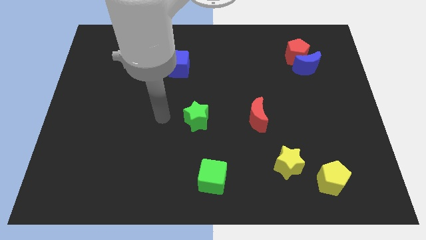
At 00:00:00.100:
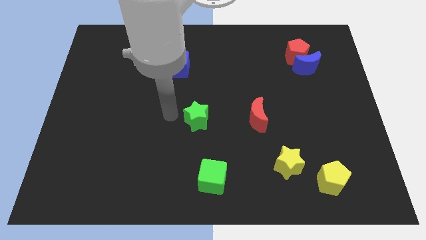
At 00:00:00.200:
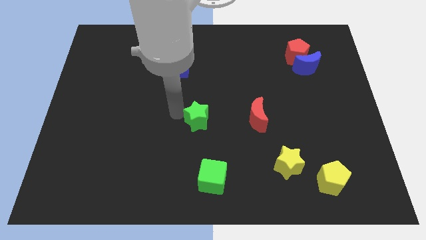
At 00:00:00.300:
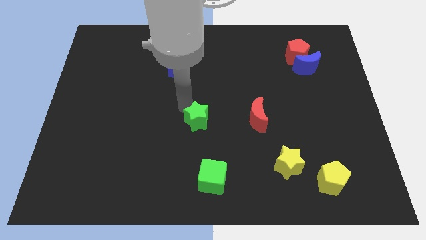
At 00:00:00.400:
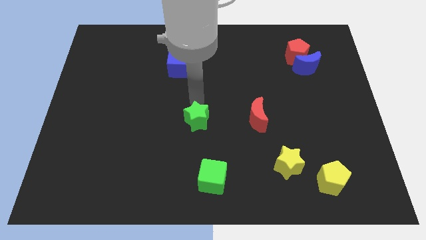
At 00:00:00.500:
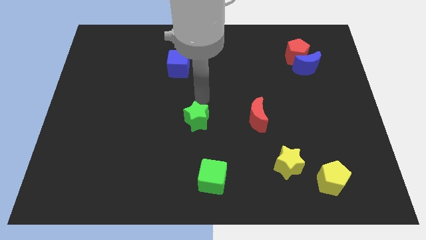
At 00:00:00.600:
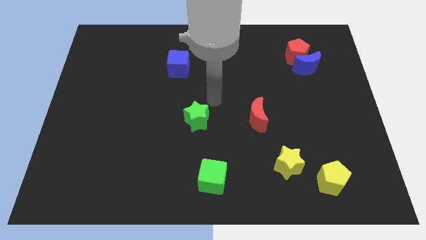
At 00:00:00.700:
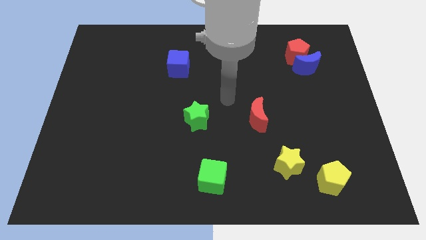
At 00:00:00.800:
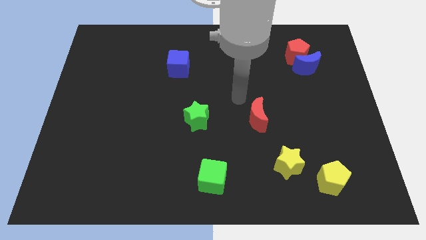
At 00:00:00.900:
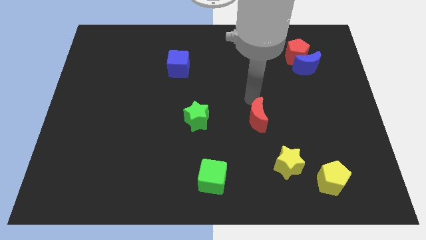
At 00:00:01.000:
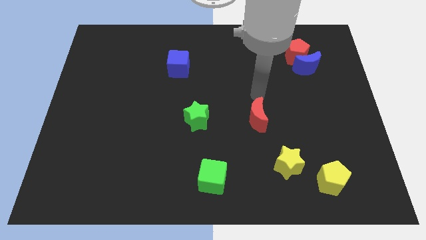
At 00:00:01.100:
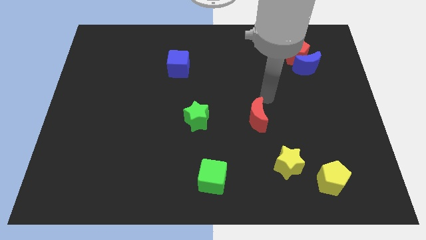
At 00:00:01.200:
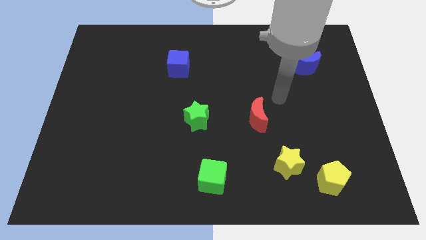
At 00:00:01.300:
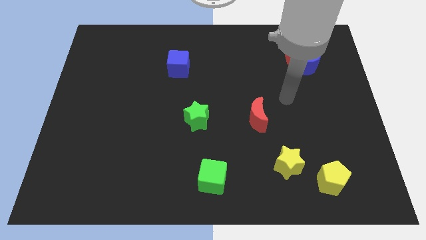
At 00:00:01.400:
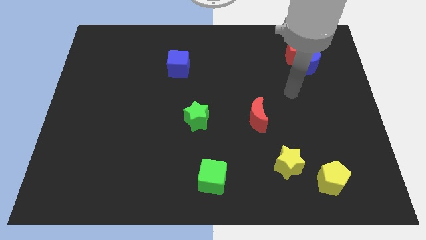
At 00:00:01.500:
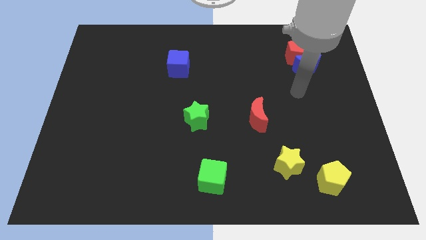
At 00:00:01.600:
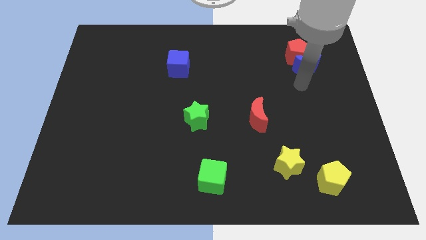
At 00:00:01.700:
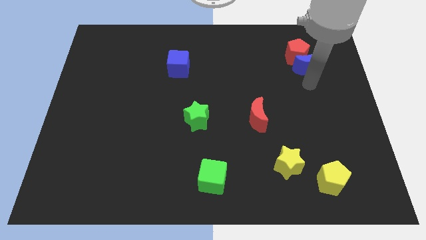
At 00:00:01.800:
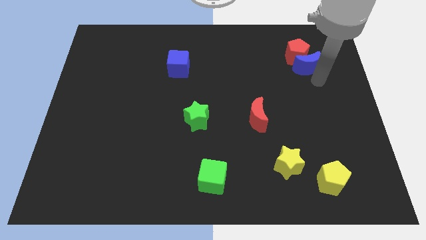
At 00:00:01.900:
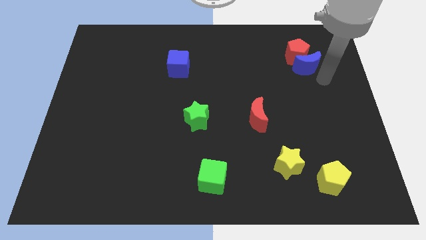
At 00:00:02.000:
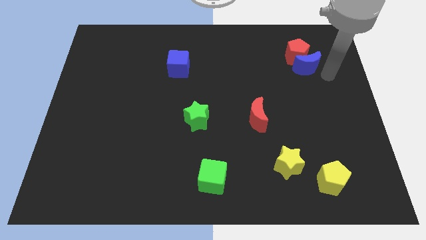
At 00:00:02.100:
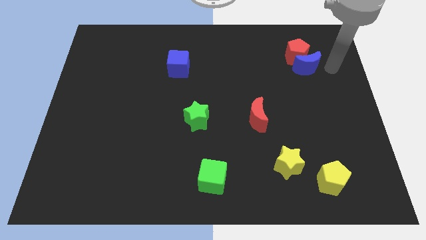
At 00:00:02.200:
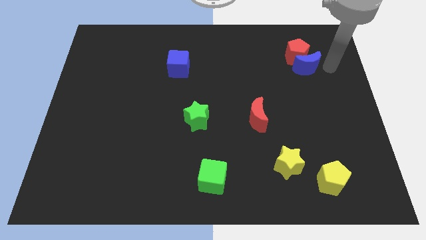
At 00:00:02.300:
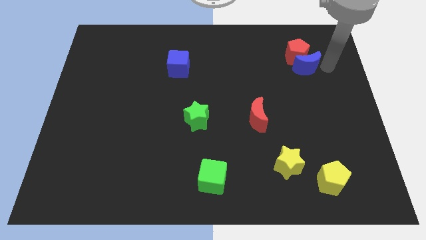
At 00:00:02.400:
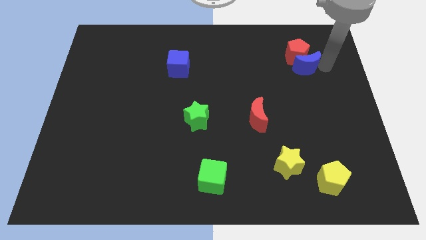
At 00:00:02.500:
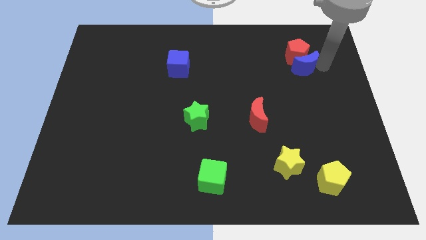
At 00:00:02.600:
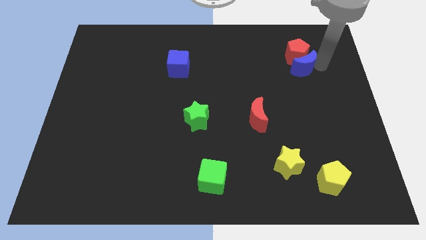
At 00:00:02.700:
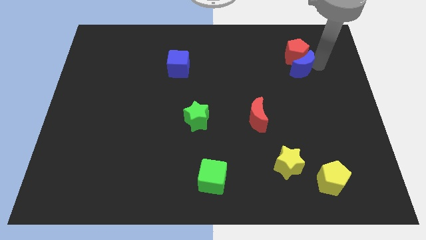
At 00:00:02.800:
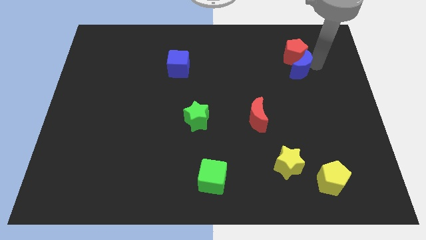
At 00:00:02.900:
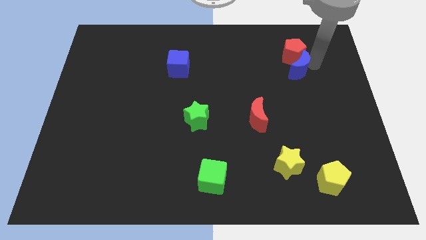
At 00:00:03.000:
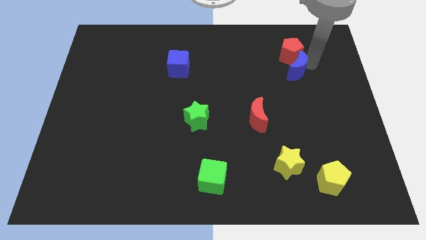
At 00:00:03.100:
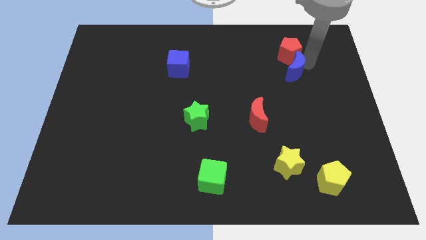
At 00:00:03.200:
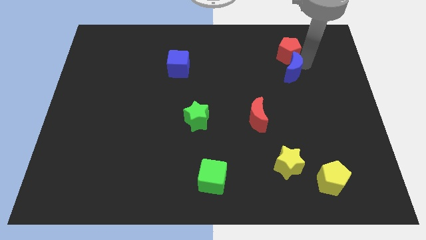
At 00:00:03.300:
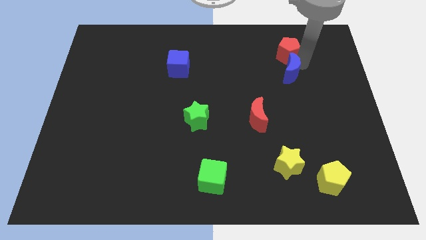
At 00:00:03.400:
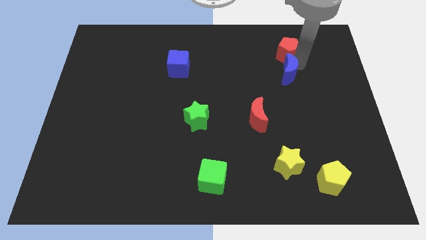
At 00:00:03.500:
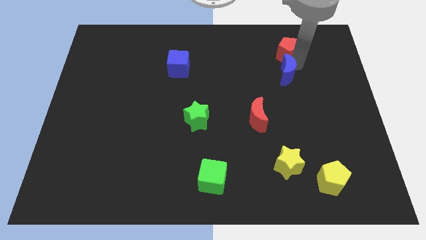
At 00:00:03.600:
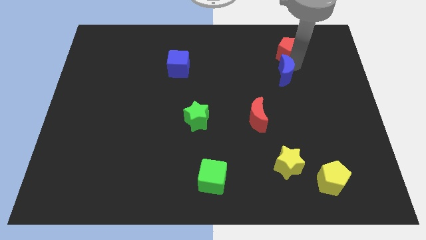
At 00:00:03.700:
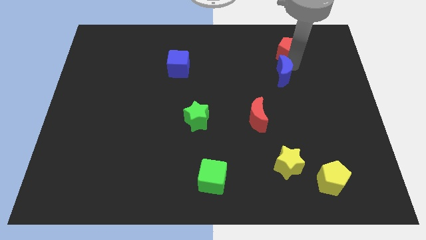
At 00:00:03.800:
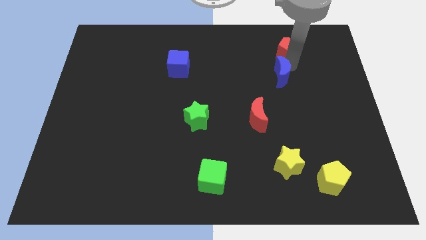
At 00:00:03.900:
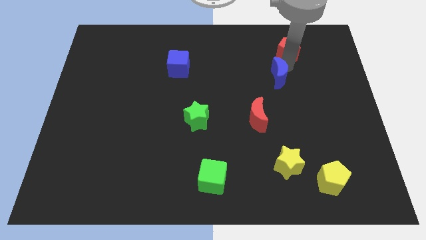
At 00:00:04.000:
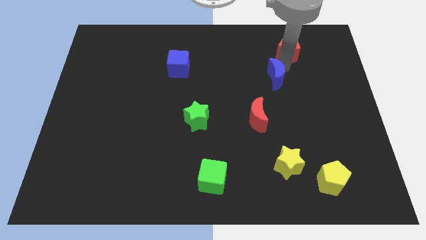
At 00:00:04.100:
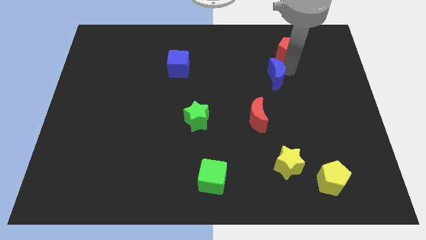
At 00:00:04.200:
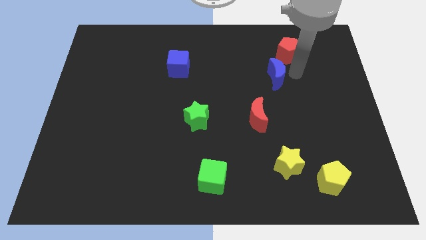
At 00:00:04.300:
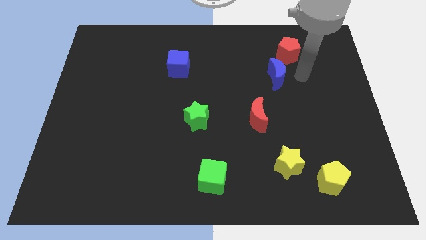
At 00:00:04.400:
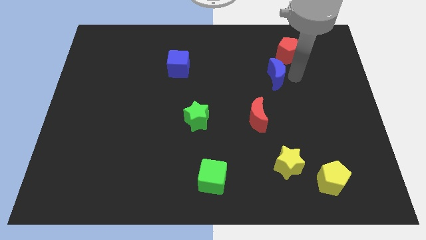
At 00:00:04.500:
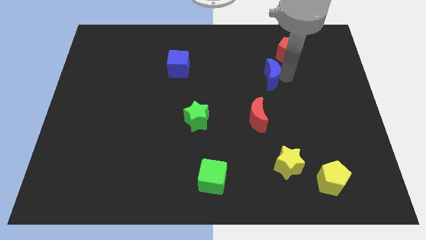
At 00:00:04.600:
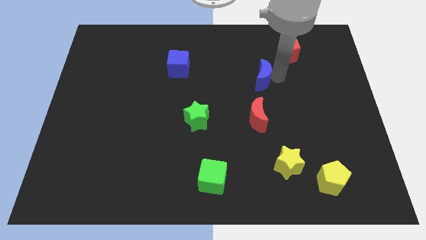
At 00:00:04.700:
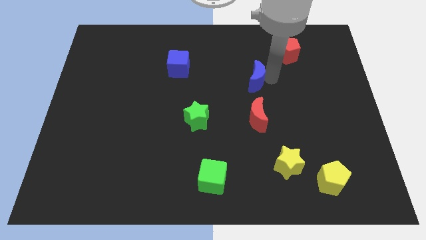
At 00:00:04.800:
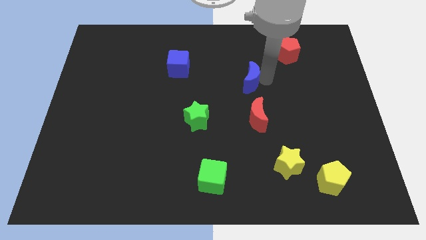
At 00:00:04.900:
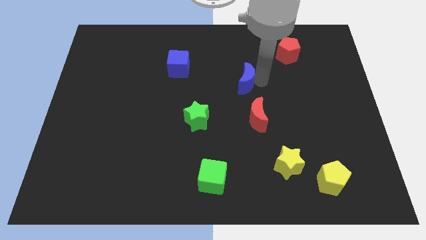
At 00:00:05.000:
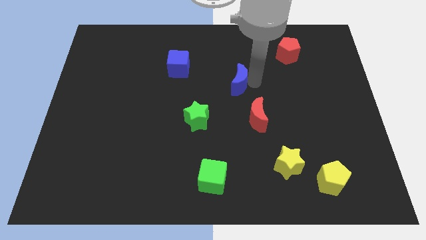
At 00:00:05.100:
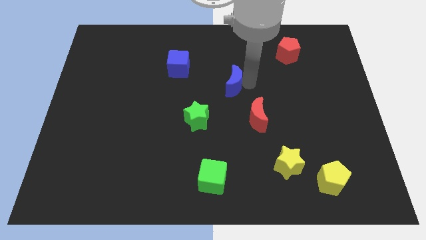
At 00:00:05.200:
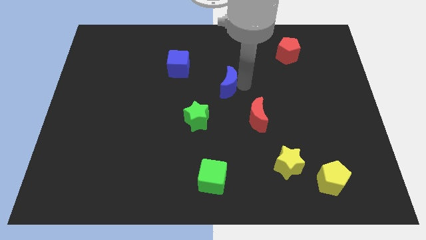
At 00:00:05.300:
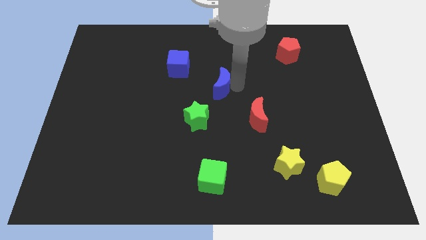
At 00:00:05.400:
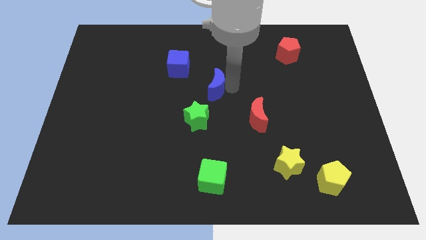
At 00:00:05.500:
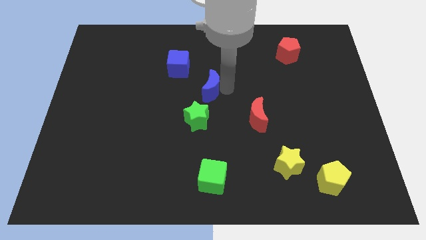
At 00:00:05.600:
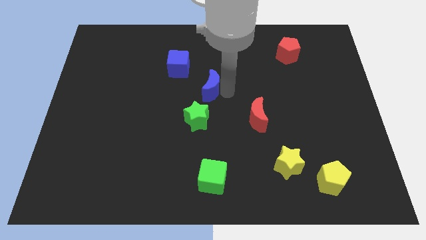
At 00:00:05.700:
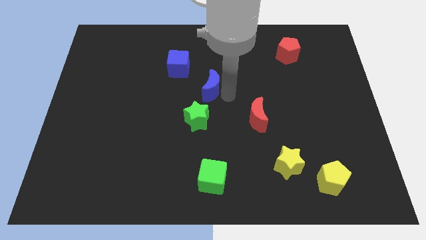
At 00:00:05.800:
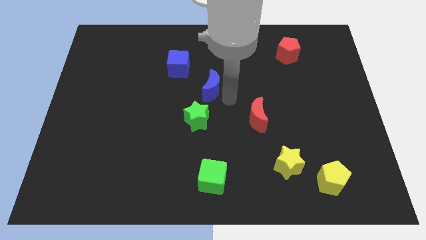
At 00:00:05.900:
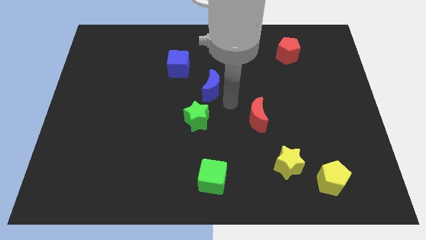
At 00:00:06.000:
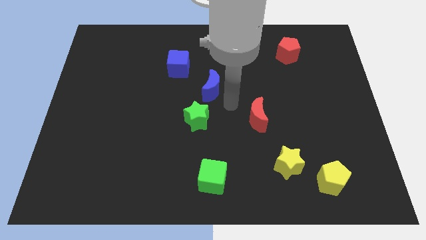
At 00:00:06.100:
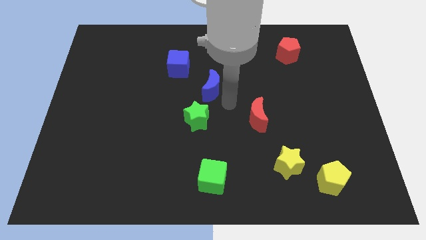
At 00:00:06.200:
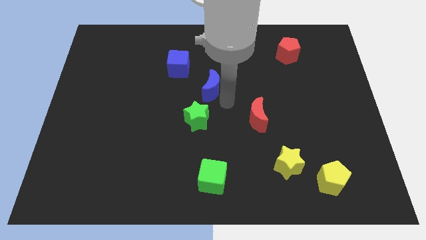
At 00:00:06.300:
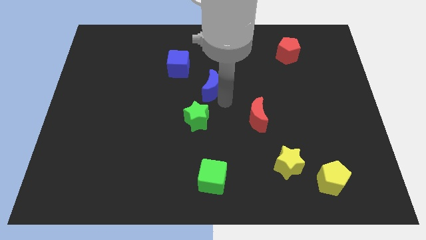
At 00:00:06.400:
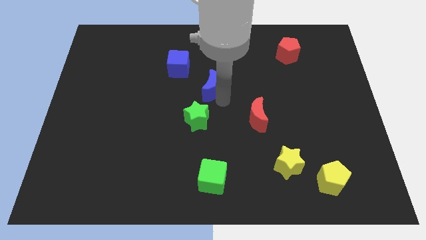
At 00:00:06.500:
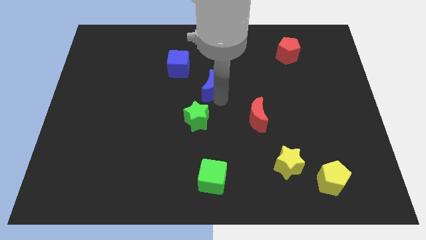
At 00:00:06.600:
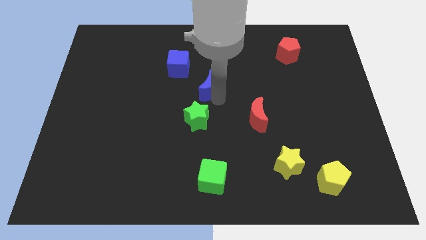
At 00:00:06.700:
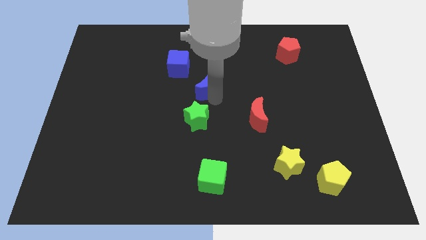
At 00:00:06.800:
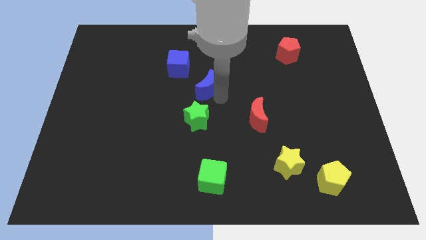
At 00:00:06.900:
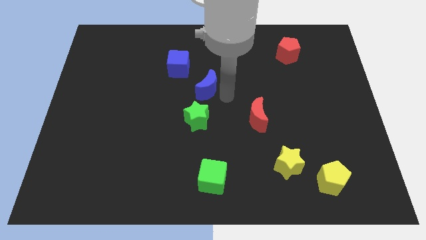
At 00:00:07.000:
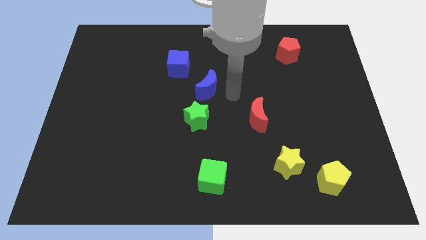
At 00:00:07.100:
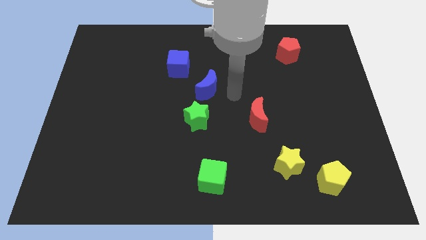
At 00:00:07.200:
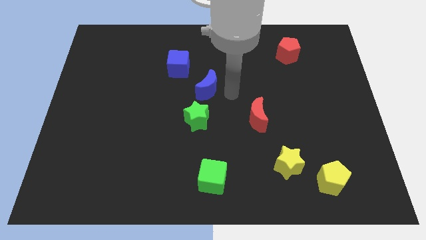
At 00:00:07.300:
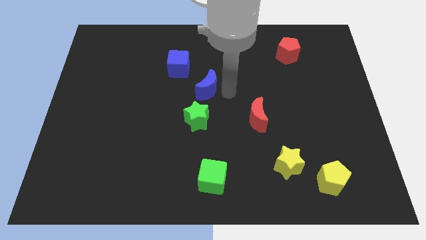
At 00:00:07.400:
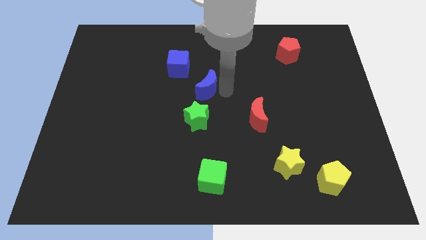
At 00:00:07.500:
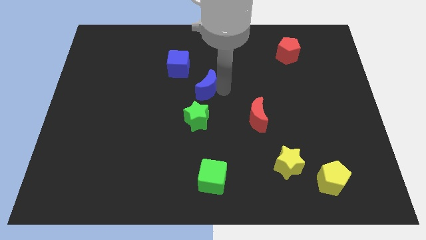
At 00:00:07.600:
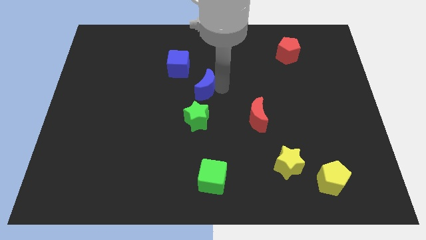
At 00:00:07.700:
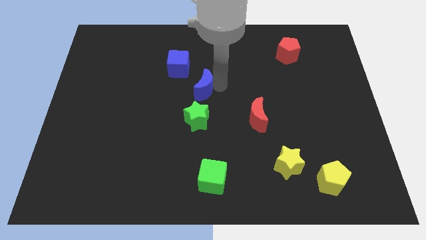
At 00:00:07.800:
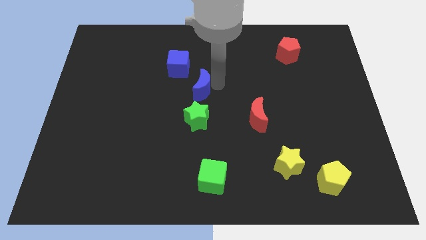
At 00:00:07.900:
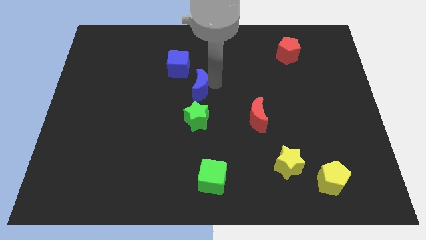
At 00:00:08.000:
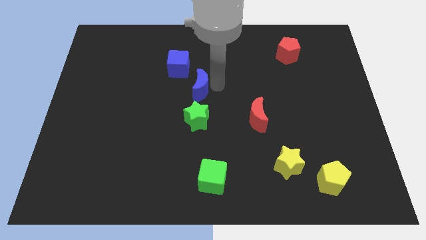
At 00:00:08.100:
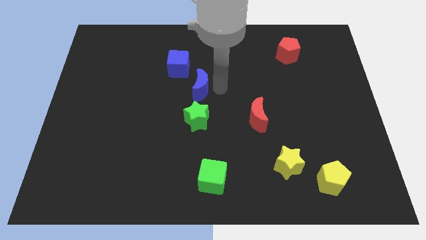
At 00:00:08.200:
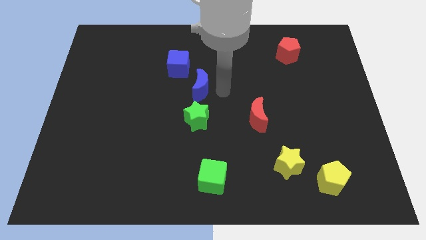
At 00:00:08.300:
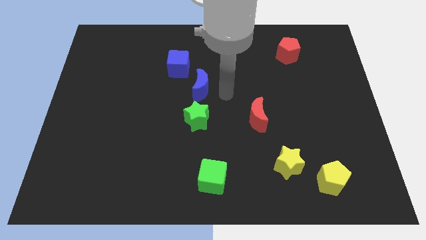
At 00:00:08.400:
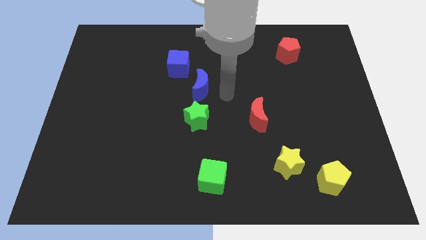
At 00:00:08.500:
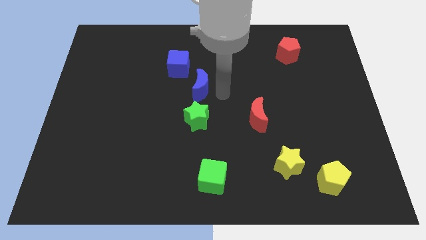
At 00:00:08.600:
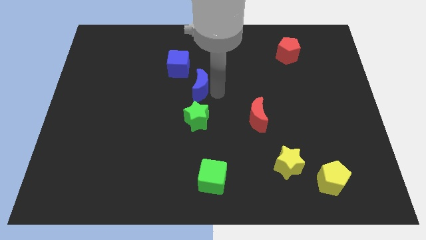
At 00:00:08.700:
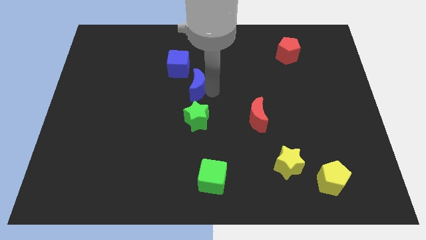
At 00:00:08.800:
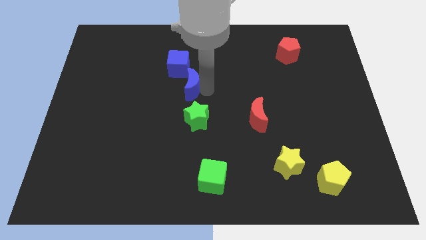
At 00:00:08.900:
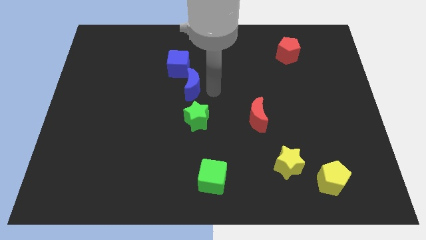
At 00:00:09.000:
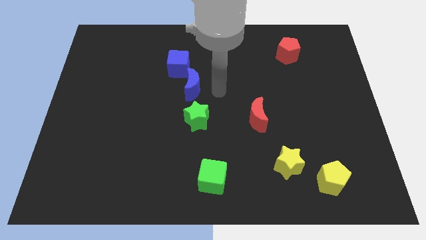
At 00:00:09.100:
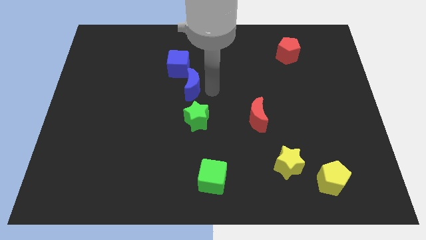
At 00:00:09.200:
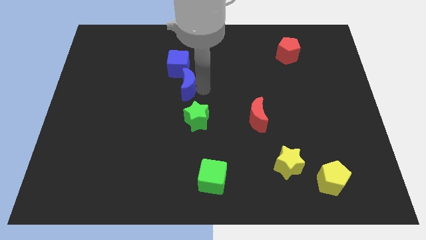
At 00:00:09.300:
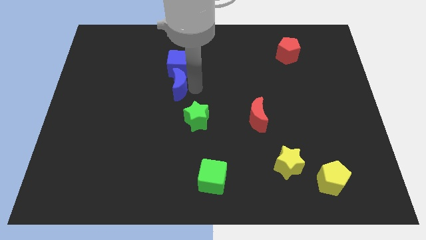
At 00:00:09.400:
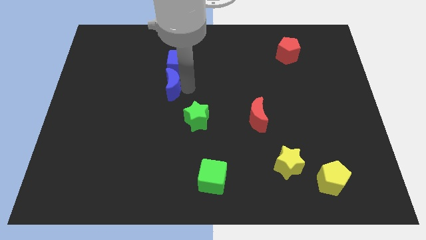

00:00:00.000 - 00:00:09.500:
push the blue moon to the bottom left of the blue cube
